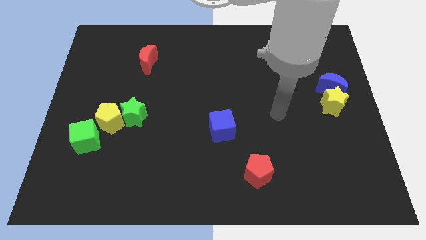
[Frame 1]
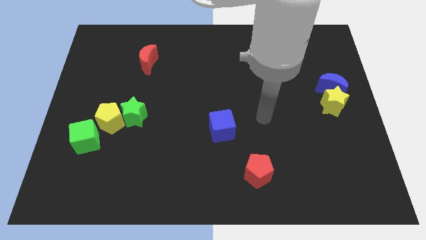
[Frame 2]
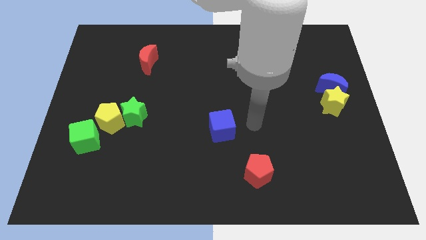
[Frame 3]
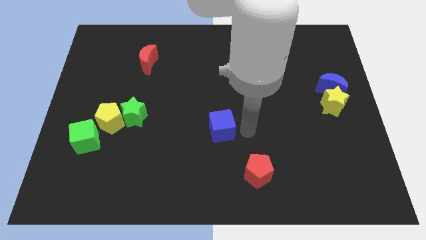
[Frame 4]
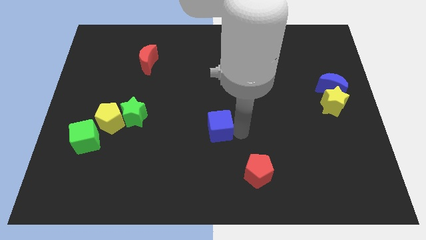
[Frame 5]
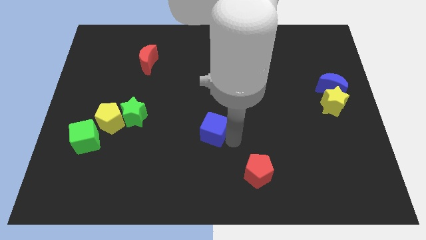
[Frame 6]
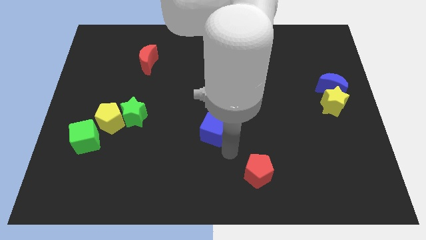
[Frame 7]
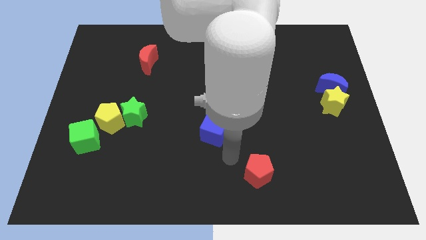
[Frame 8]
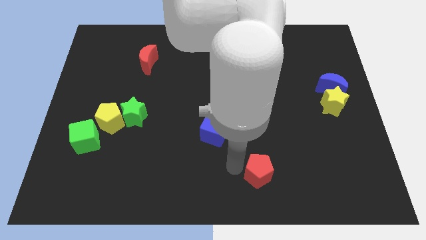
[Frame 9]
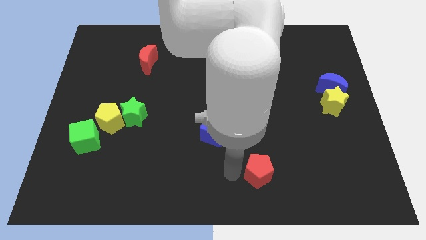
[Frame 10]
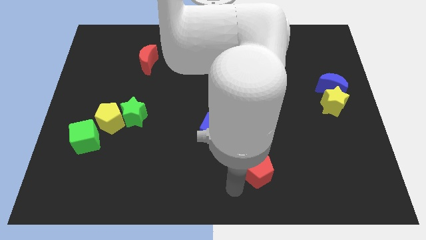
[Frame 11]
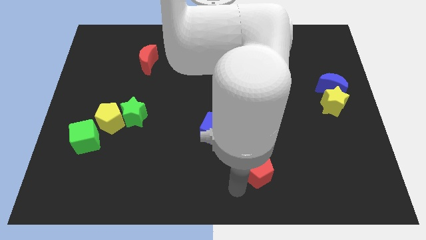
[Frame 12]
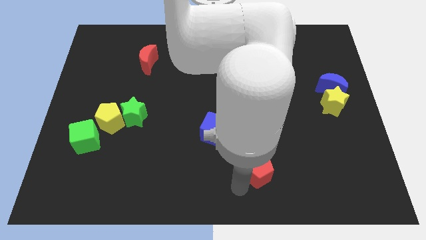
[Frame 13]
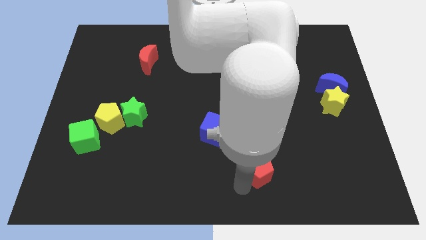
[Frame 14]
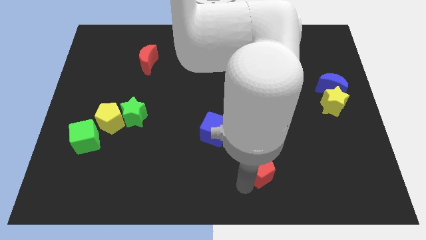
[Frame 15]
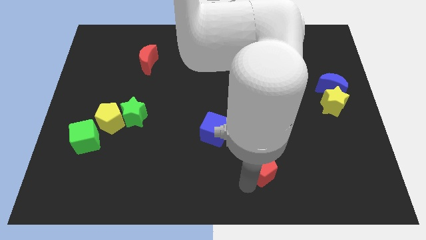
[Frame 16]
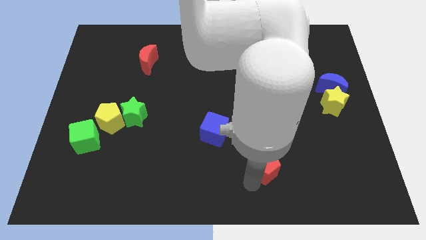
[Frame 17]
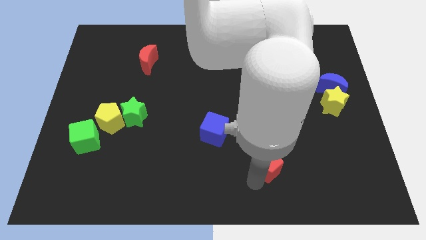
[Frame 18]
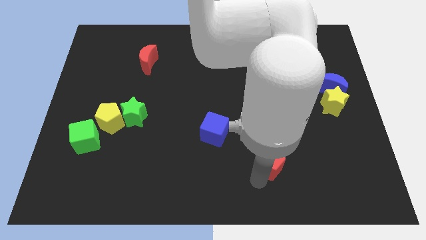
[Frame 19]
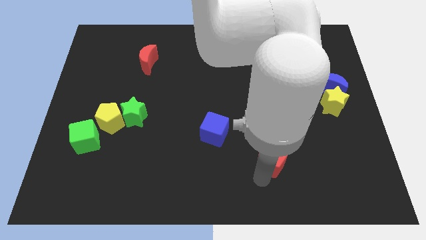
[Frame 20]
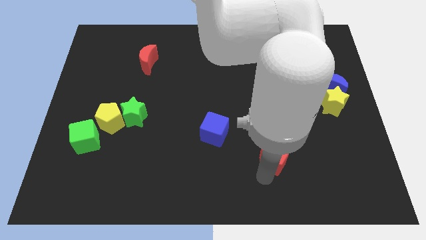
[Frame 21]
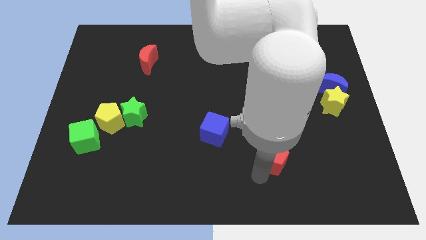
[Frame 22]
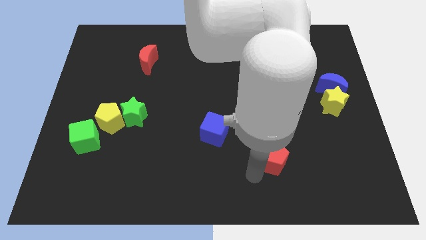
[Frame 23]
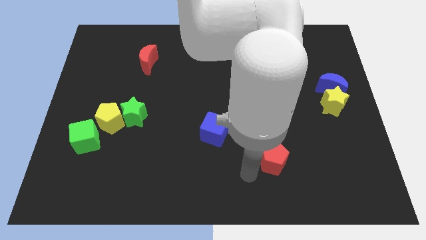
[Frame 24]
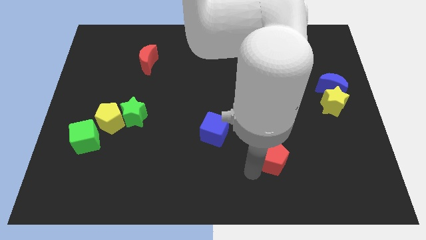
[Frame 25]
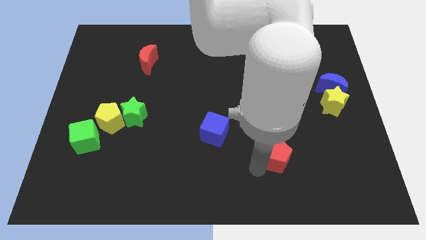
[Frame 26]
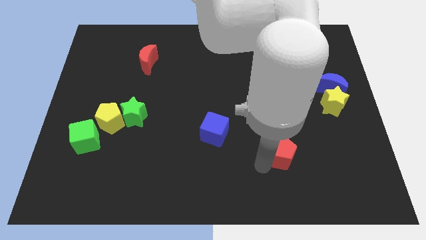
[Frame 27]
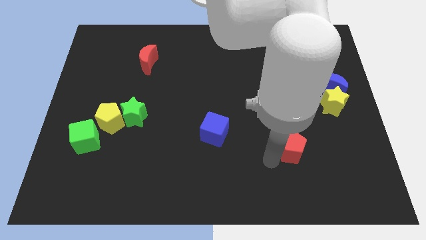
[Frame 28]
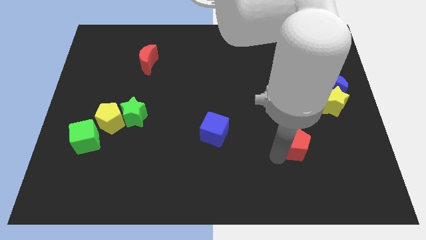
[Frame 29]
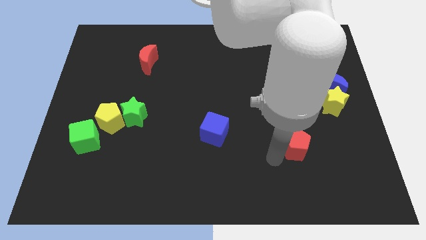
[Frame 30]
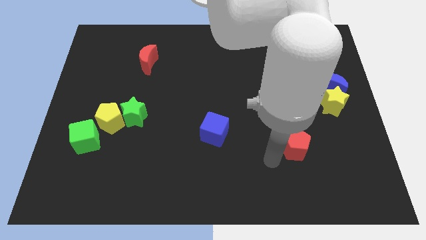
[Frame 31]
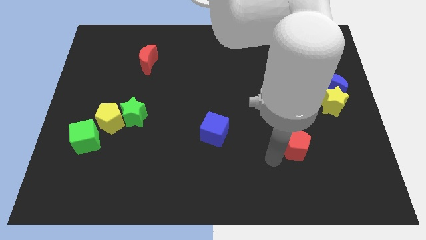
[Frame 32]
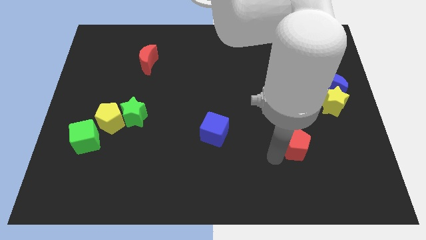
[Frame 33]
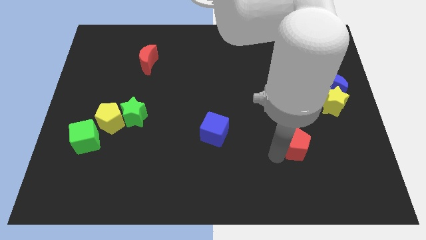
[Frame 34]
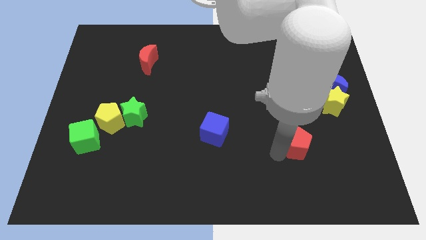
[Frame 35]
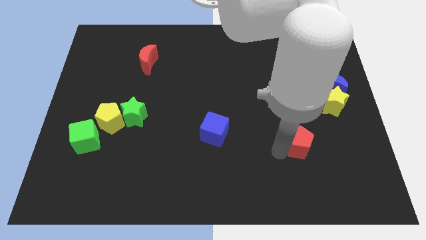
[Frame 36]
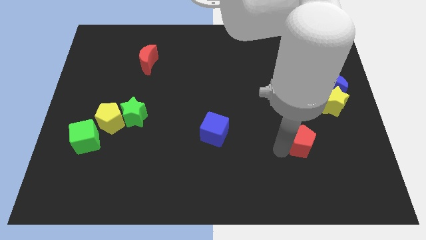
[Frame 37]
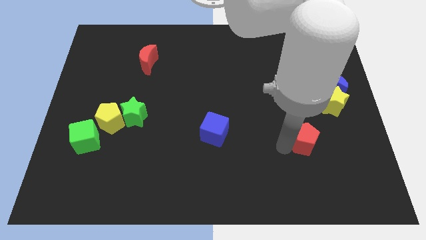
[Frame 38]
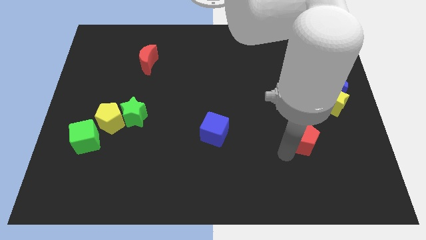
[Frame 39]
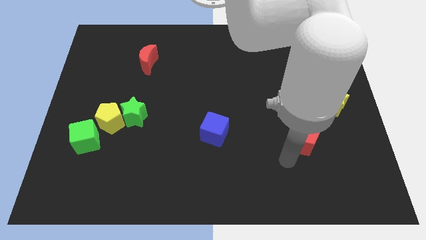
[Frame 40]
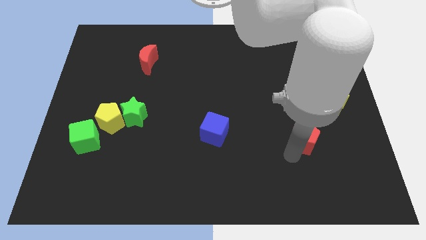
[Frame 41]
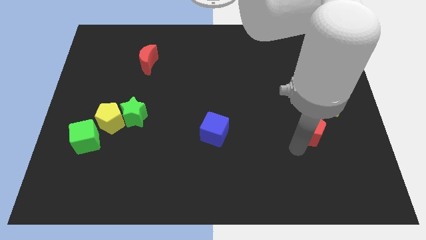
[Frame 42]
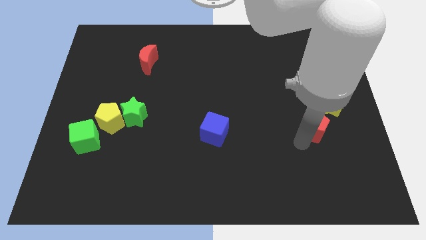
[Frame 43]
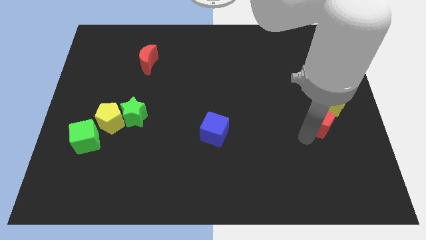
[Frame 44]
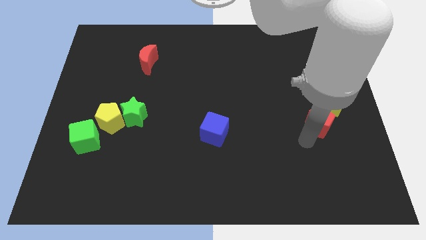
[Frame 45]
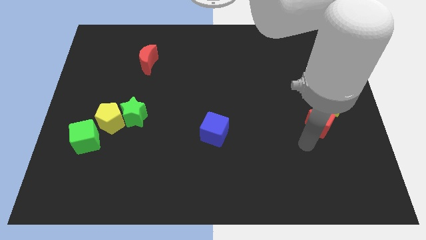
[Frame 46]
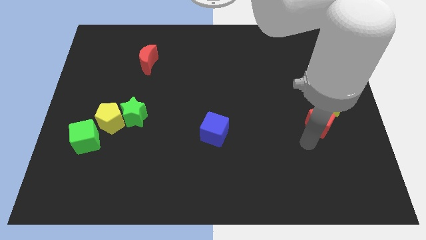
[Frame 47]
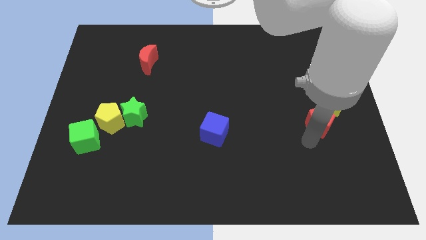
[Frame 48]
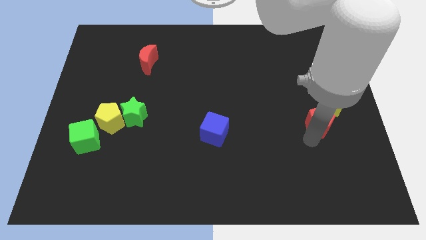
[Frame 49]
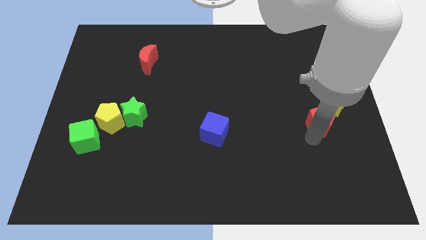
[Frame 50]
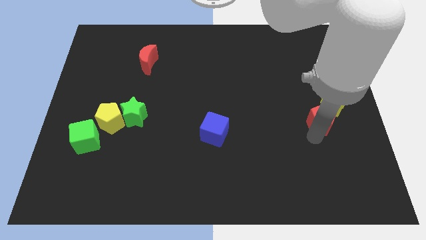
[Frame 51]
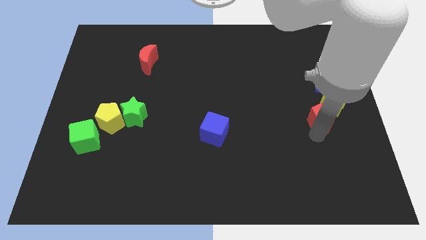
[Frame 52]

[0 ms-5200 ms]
push the red pentagon next to the yellow star

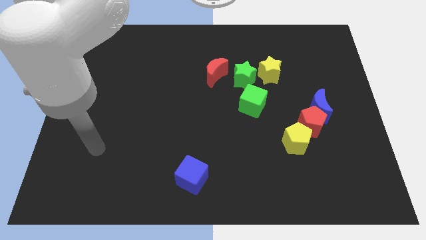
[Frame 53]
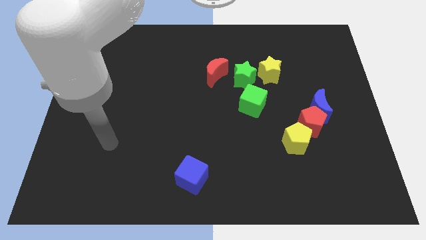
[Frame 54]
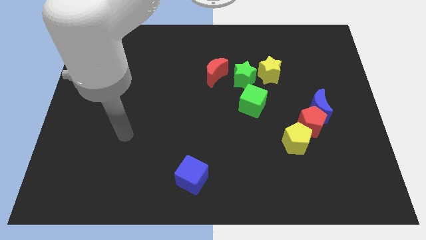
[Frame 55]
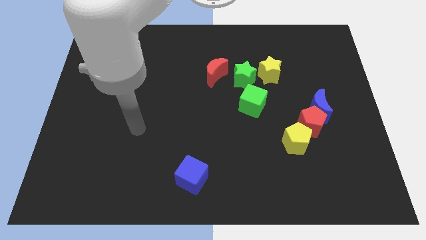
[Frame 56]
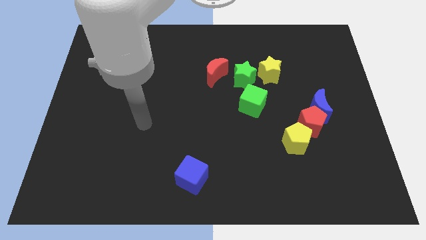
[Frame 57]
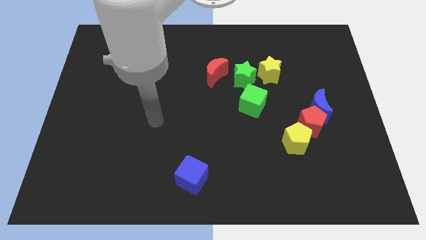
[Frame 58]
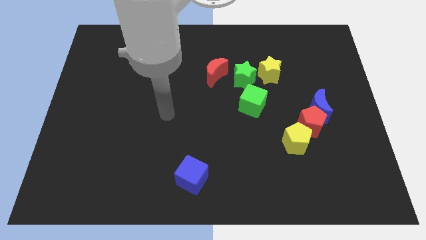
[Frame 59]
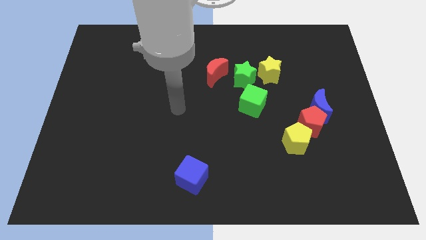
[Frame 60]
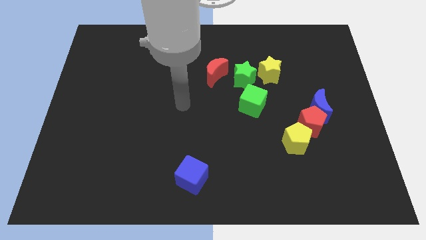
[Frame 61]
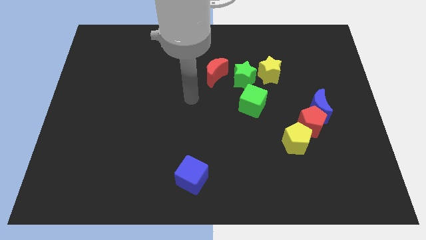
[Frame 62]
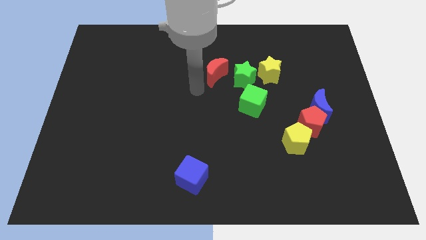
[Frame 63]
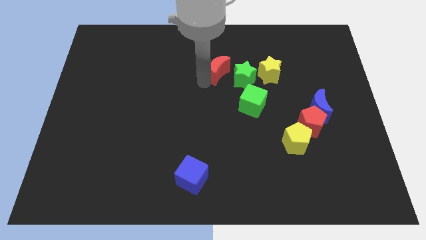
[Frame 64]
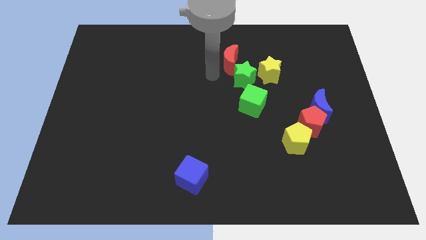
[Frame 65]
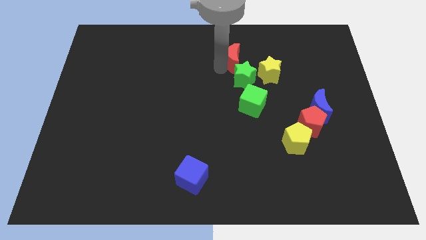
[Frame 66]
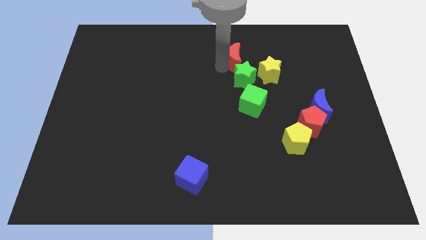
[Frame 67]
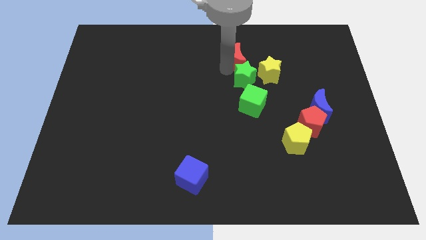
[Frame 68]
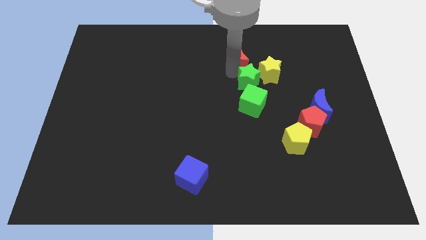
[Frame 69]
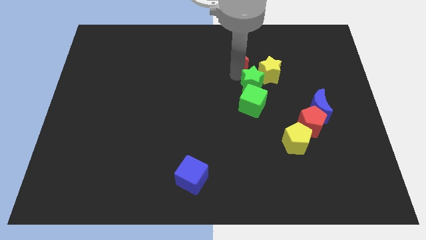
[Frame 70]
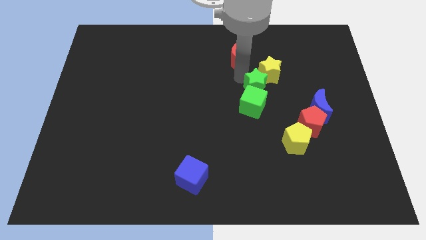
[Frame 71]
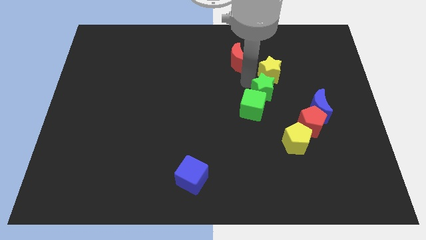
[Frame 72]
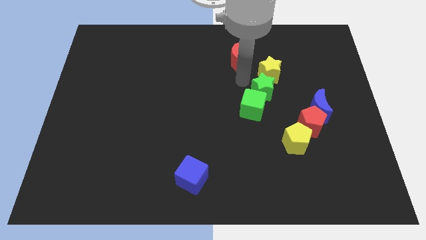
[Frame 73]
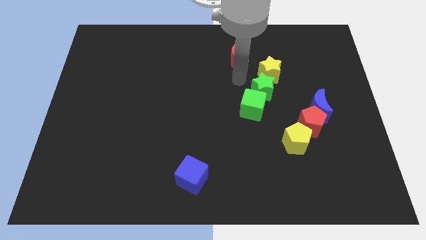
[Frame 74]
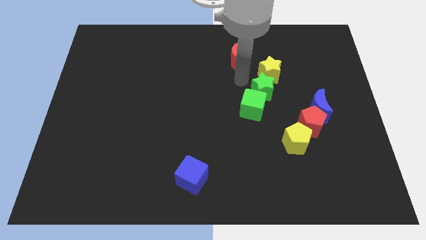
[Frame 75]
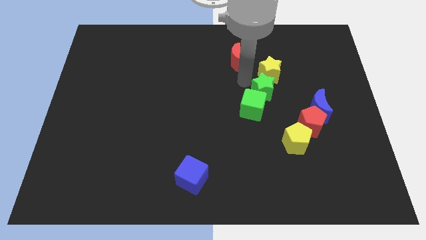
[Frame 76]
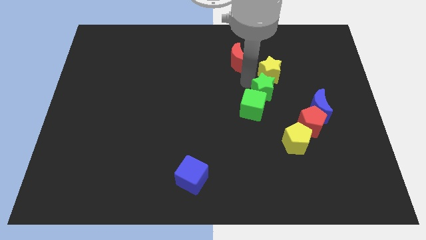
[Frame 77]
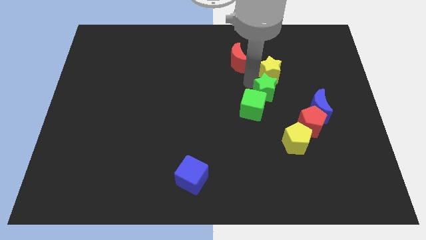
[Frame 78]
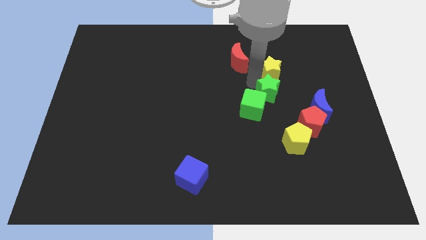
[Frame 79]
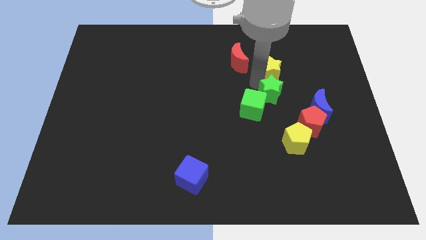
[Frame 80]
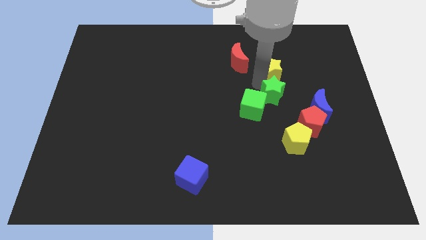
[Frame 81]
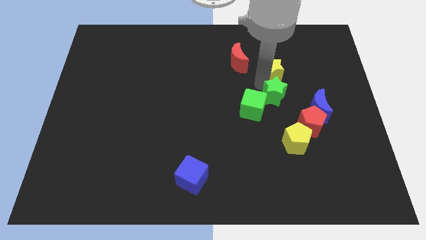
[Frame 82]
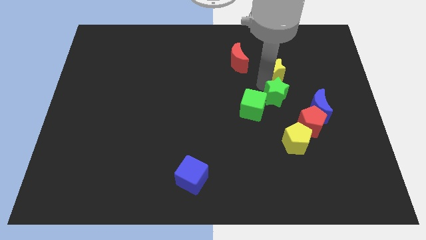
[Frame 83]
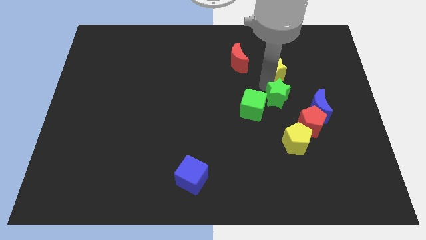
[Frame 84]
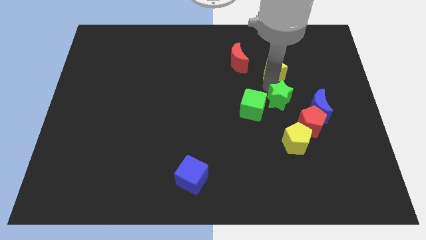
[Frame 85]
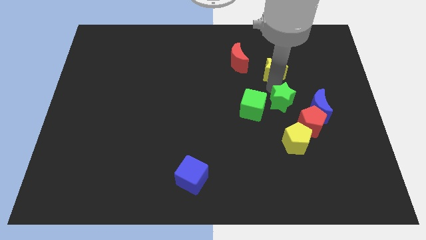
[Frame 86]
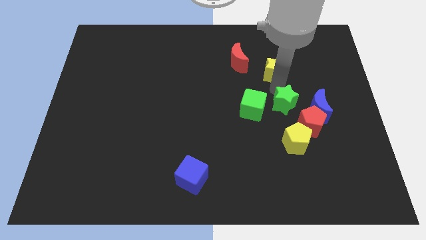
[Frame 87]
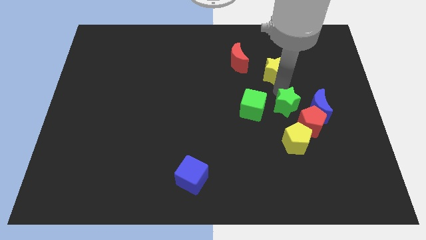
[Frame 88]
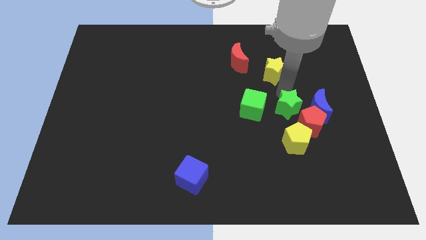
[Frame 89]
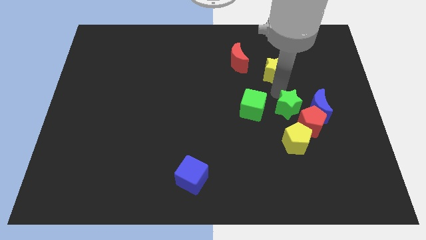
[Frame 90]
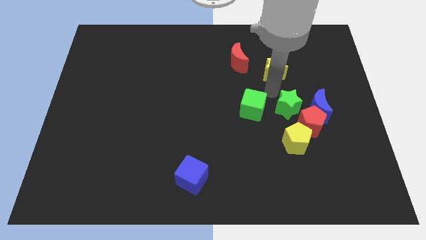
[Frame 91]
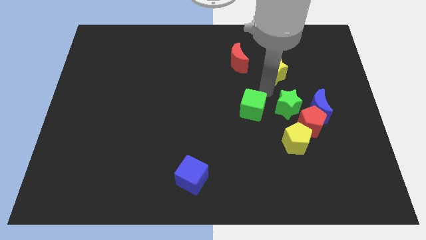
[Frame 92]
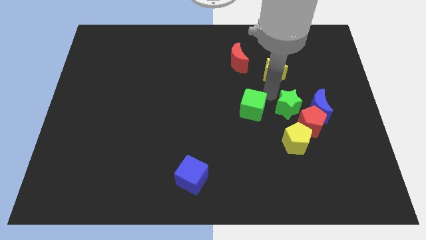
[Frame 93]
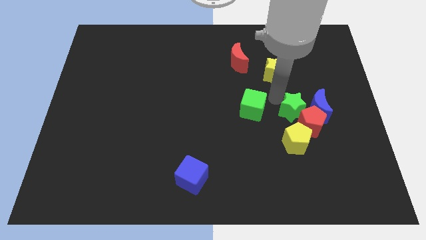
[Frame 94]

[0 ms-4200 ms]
slide the green star close to the red pentagon
